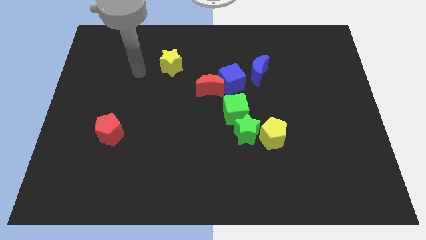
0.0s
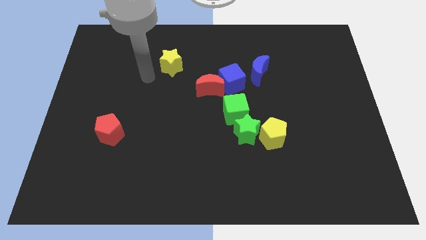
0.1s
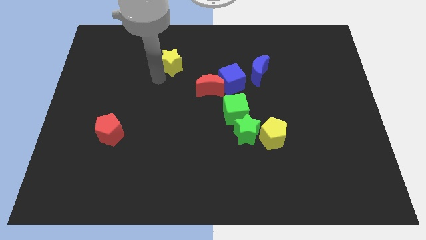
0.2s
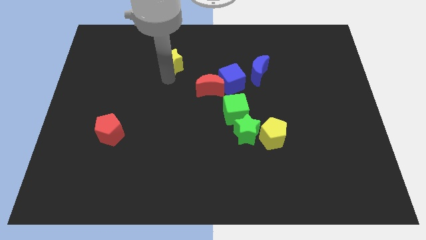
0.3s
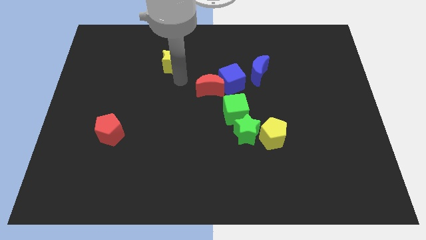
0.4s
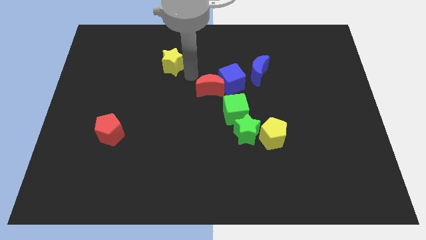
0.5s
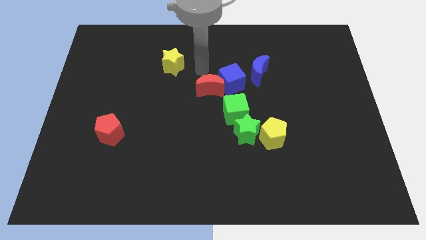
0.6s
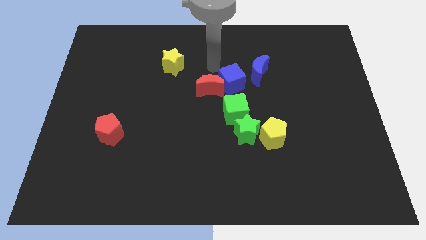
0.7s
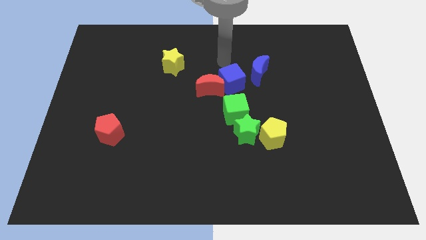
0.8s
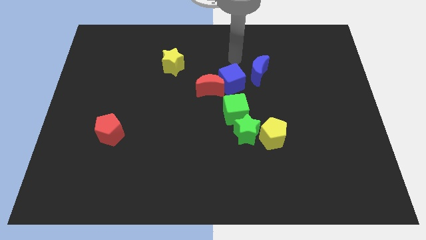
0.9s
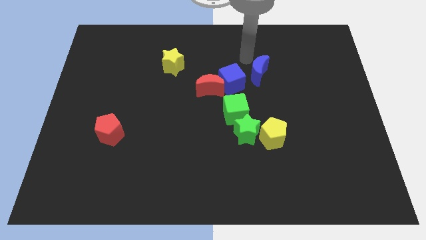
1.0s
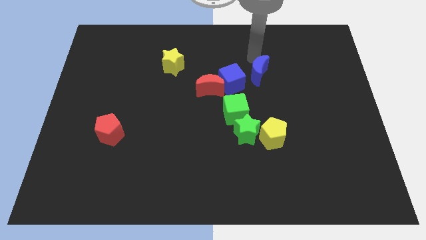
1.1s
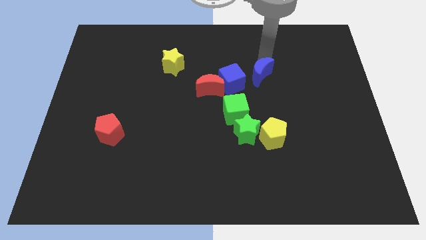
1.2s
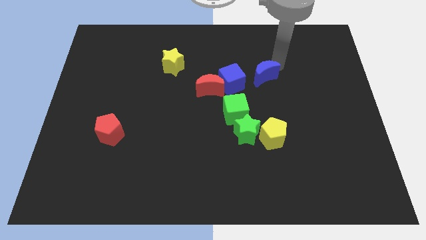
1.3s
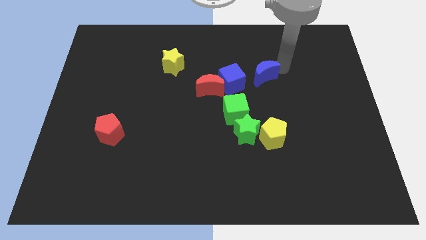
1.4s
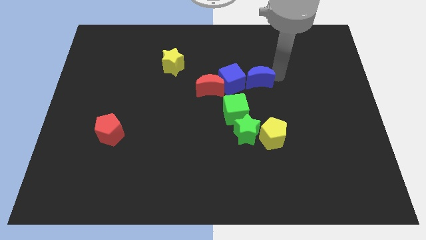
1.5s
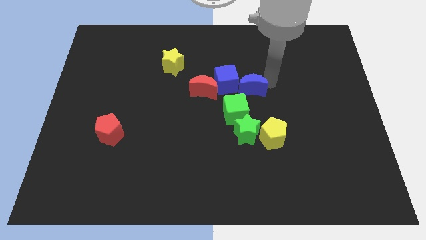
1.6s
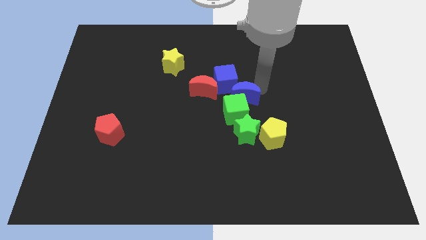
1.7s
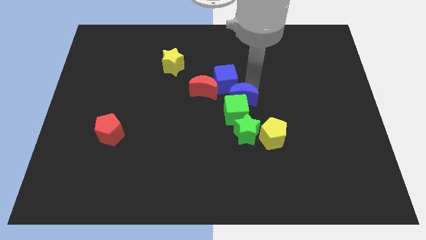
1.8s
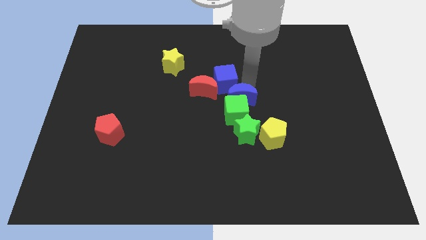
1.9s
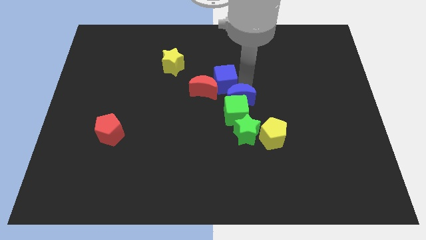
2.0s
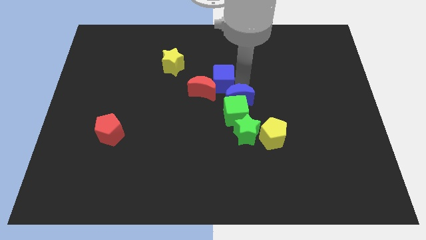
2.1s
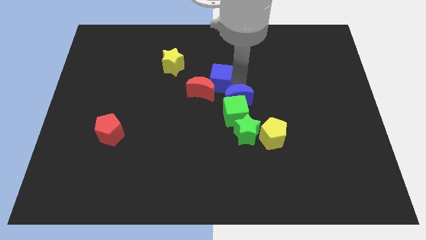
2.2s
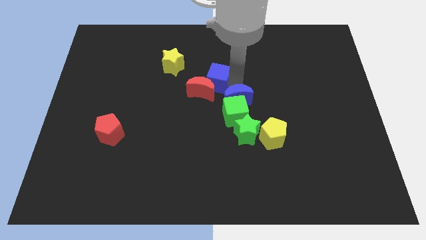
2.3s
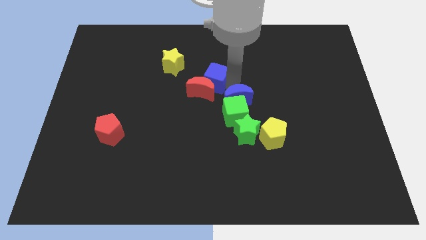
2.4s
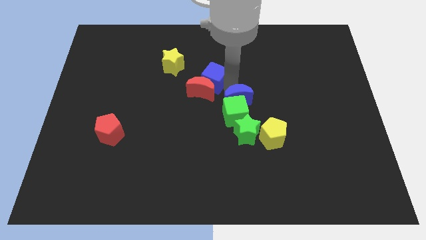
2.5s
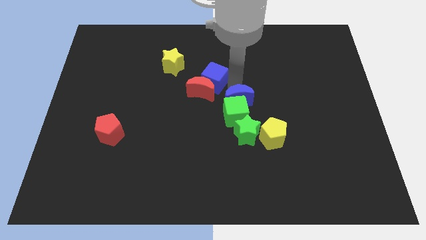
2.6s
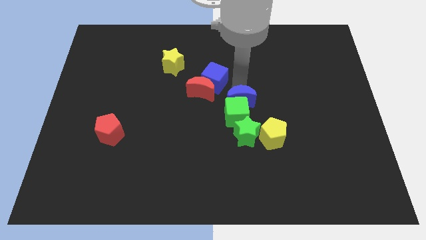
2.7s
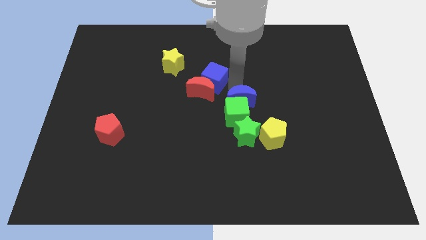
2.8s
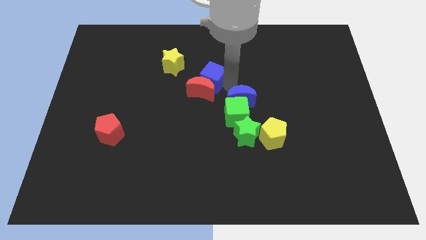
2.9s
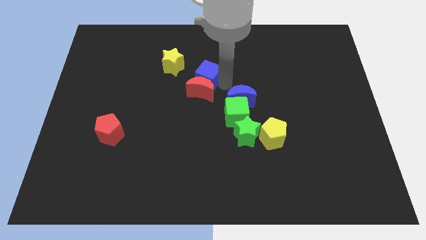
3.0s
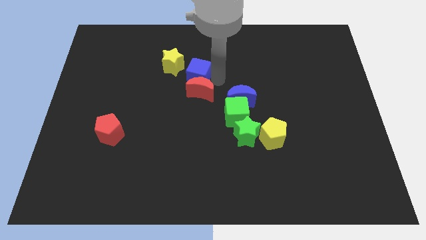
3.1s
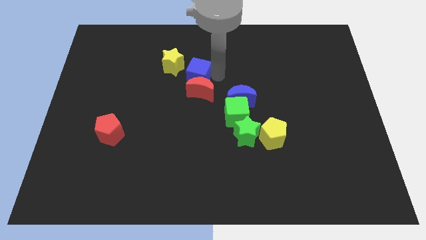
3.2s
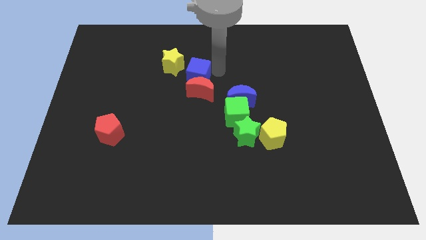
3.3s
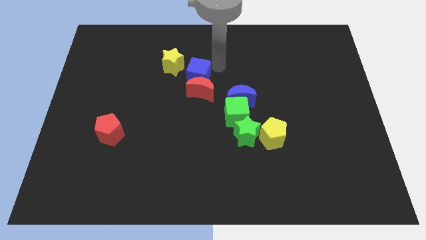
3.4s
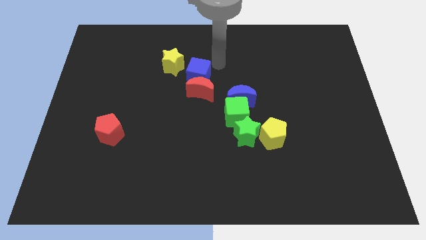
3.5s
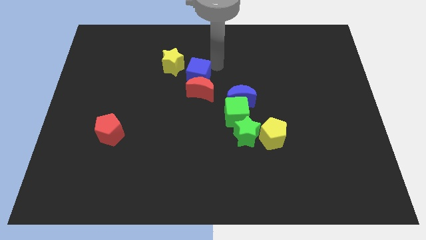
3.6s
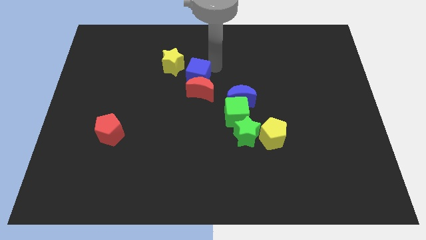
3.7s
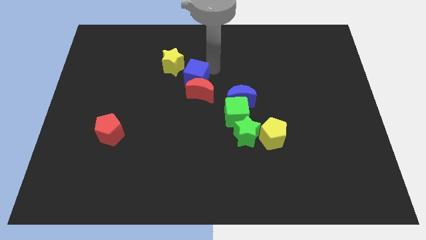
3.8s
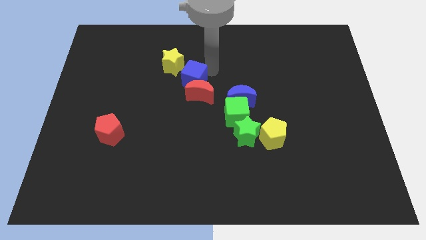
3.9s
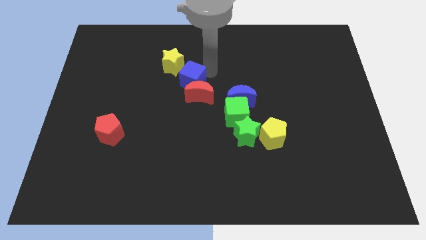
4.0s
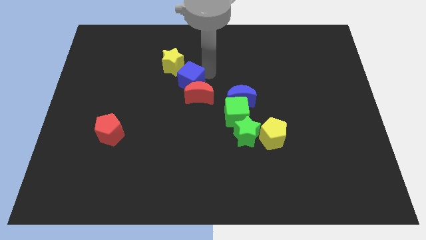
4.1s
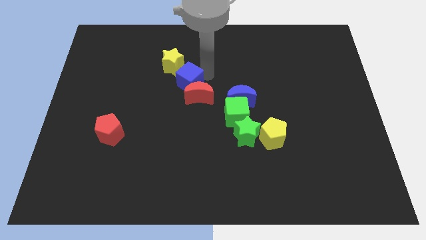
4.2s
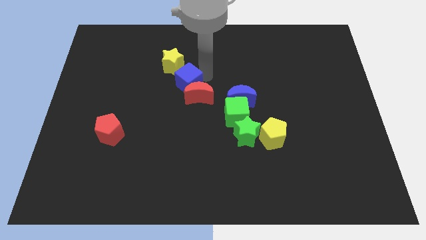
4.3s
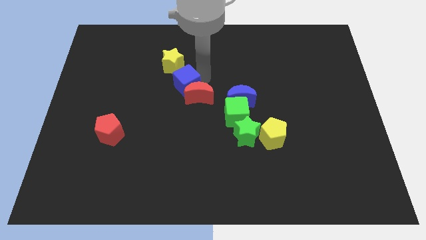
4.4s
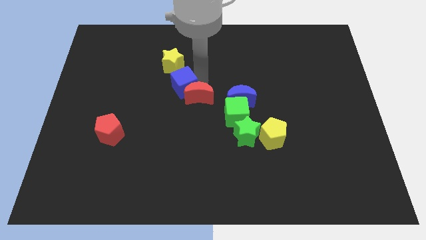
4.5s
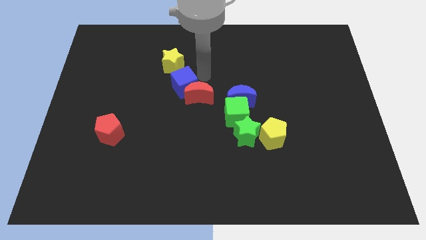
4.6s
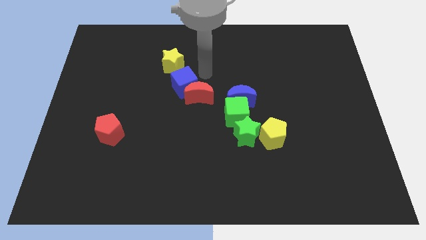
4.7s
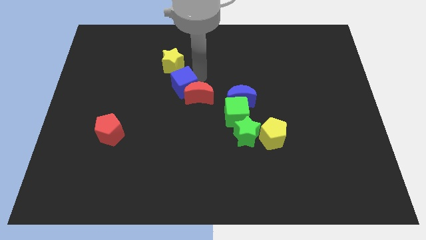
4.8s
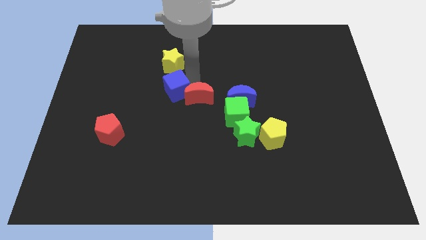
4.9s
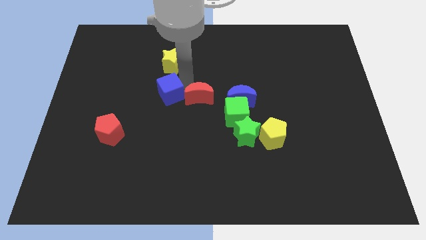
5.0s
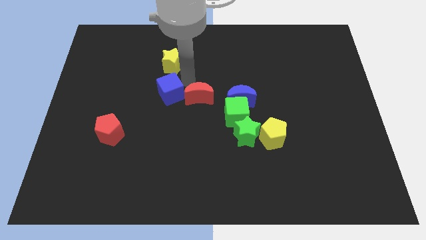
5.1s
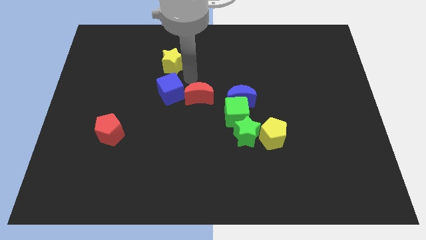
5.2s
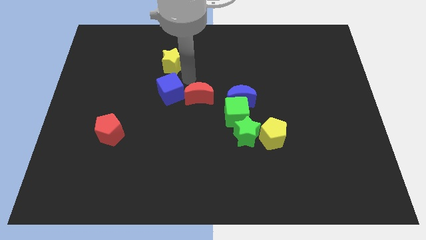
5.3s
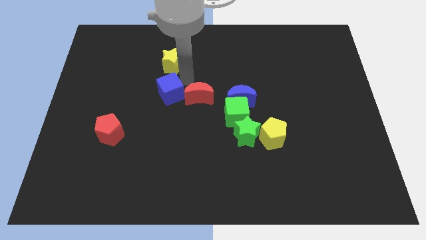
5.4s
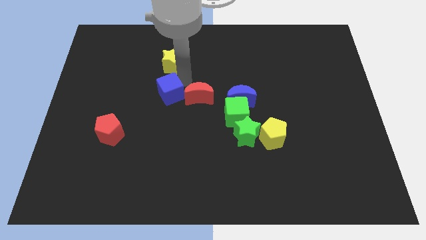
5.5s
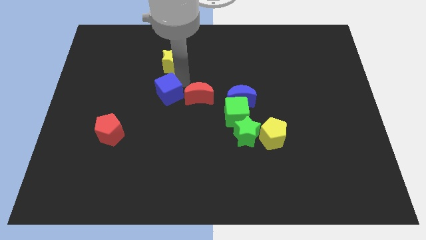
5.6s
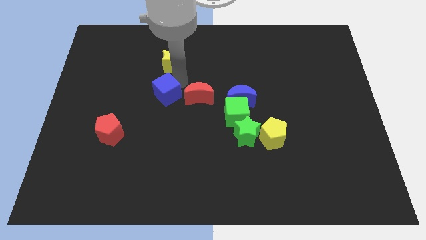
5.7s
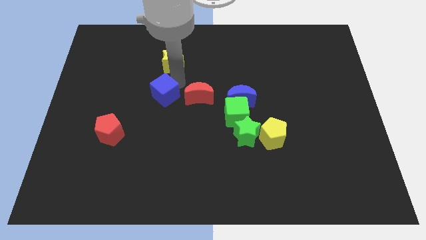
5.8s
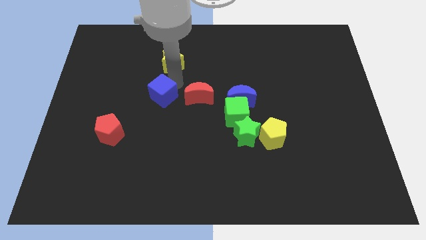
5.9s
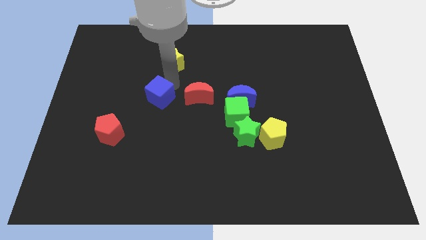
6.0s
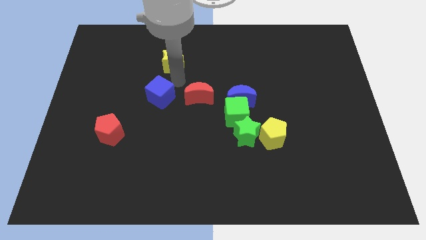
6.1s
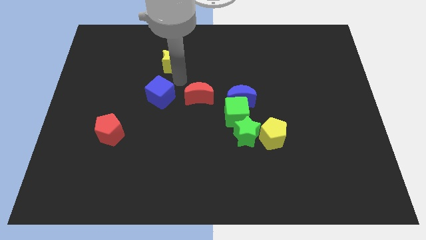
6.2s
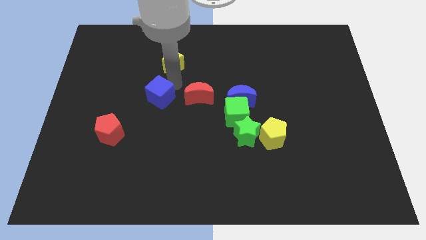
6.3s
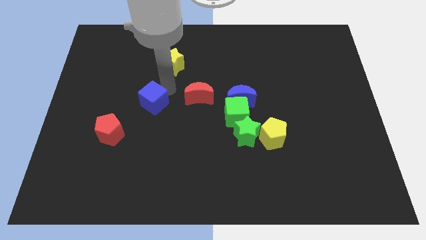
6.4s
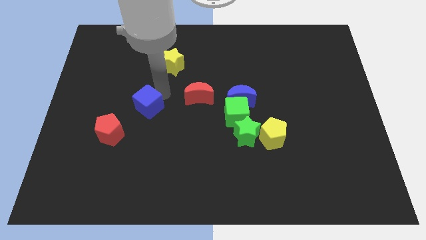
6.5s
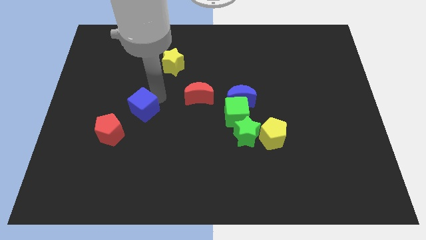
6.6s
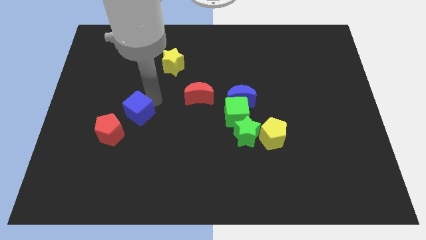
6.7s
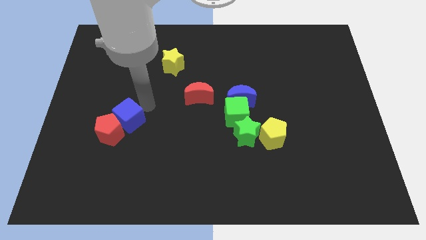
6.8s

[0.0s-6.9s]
move the blue cube next to the red pentagon

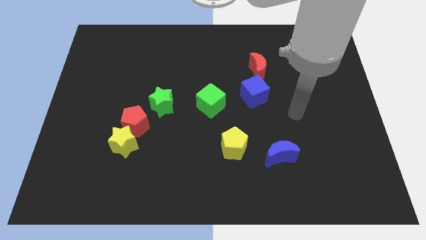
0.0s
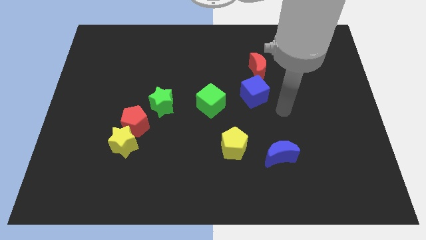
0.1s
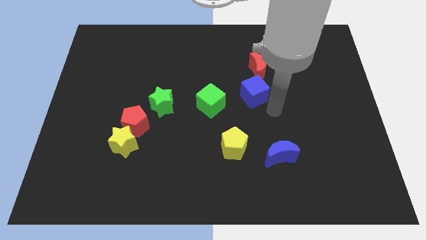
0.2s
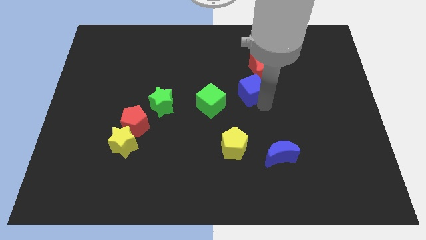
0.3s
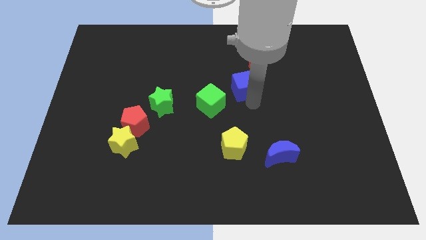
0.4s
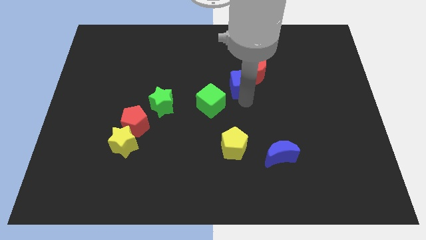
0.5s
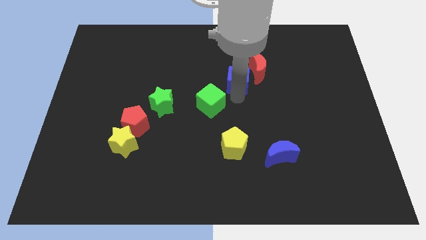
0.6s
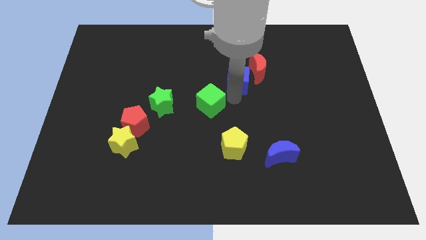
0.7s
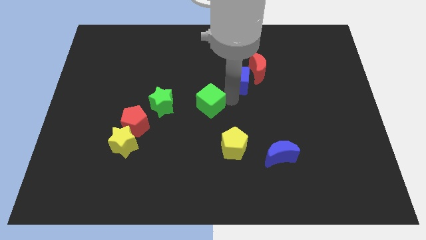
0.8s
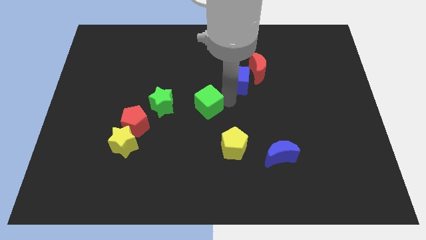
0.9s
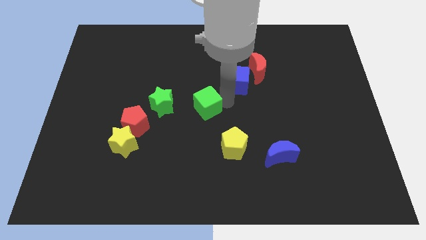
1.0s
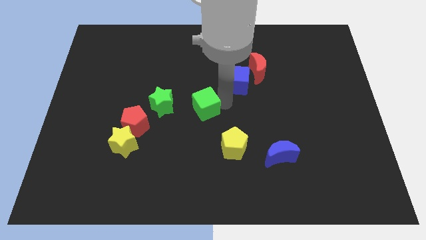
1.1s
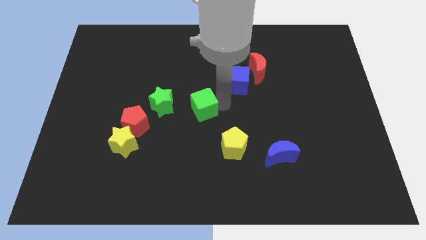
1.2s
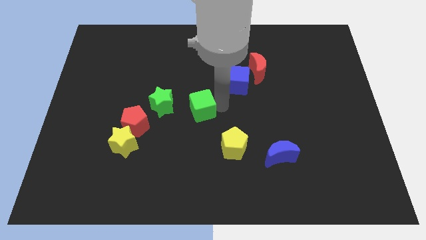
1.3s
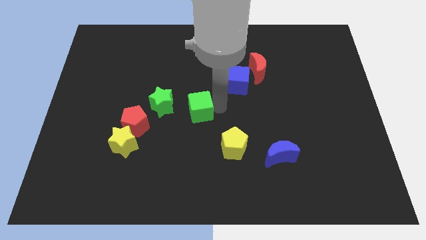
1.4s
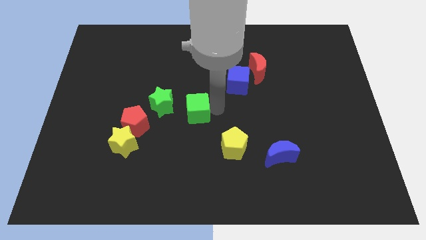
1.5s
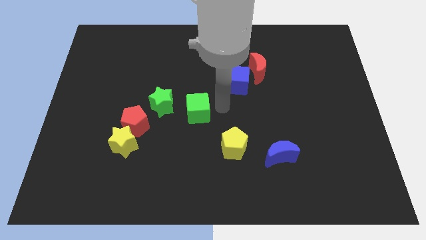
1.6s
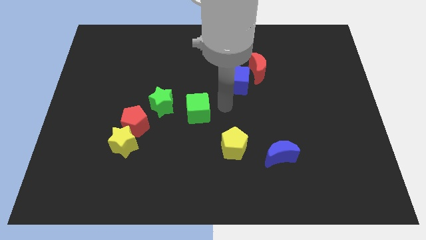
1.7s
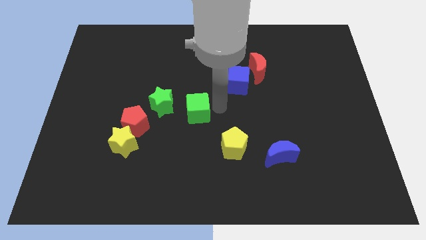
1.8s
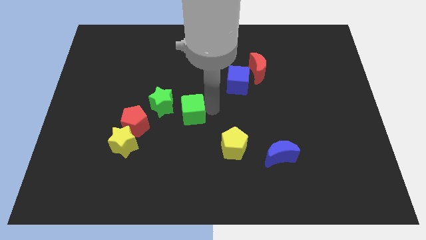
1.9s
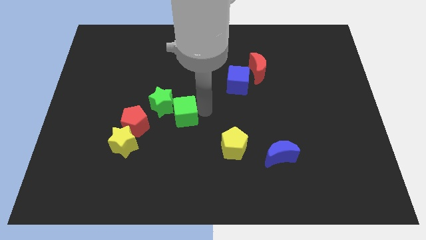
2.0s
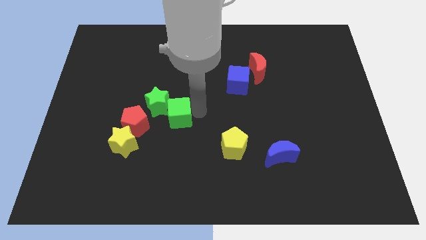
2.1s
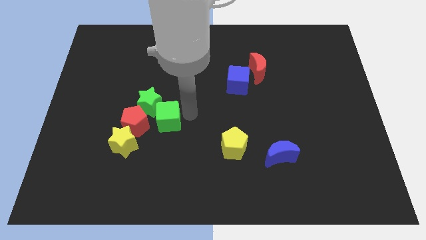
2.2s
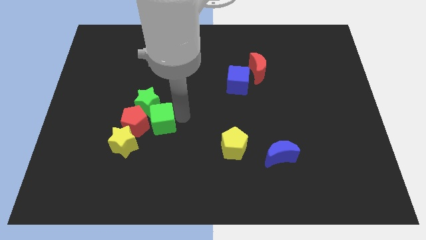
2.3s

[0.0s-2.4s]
put the green cube towards the red pentagon
